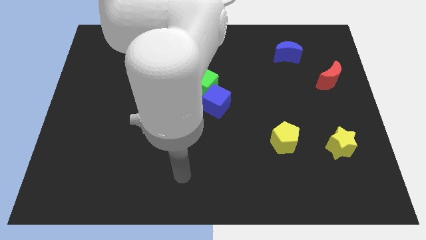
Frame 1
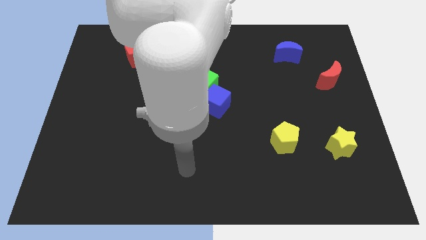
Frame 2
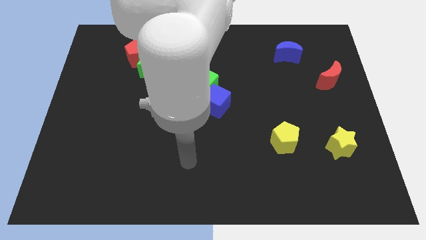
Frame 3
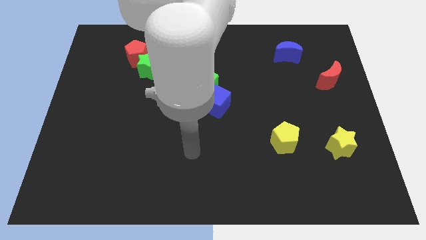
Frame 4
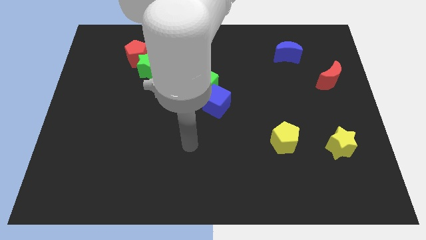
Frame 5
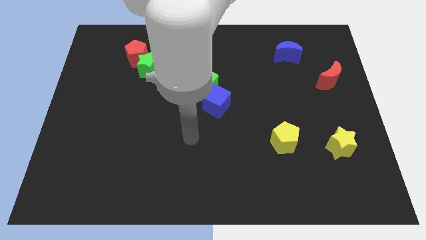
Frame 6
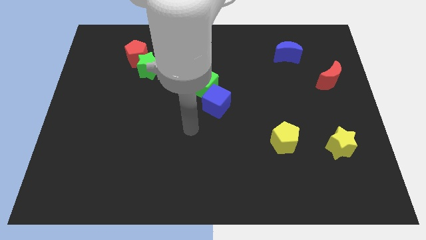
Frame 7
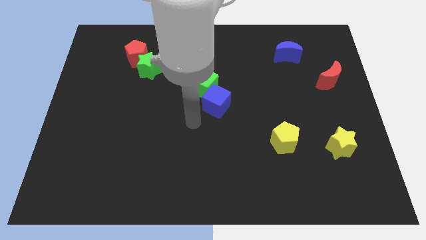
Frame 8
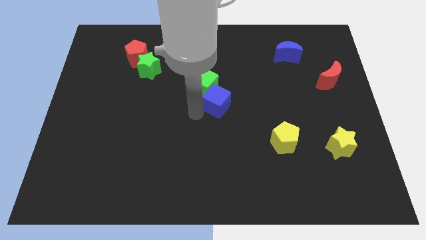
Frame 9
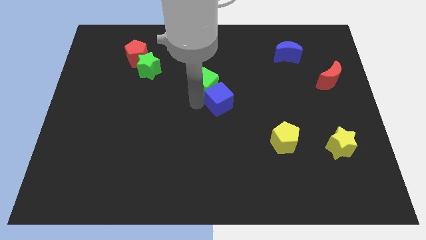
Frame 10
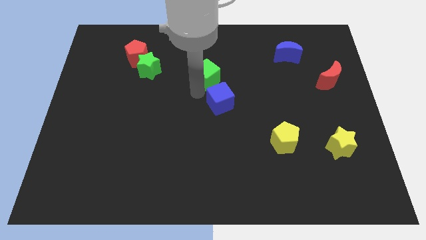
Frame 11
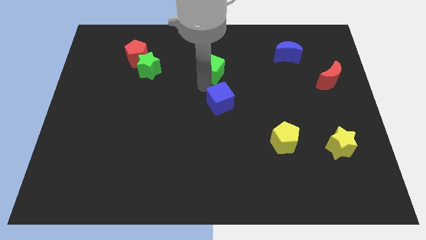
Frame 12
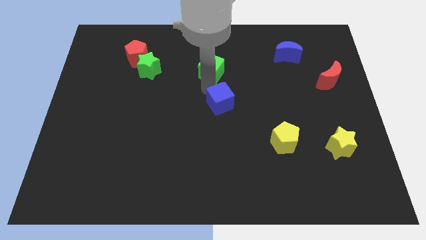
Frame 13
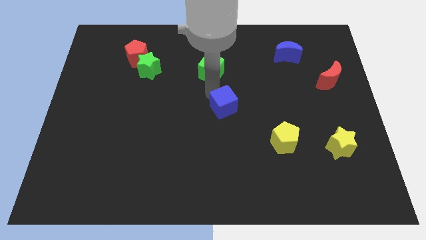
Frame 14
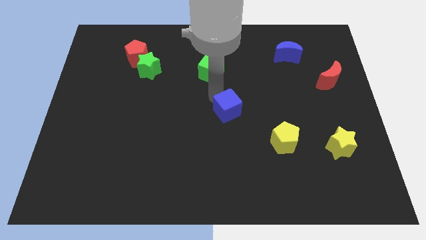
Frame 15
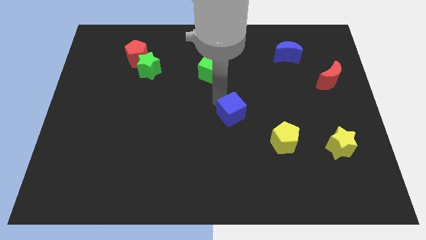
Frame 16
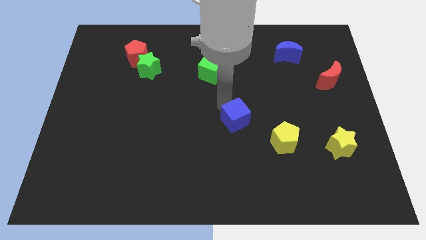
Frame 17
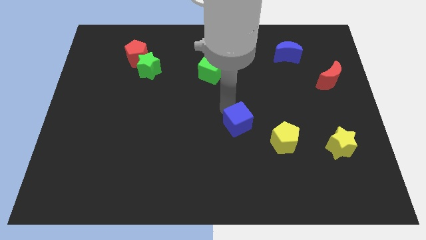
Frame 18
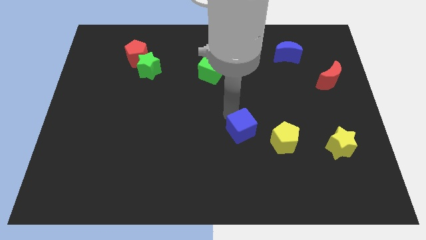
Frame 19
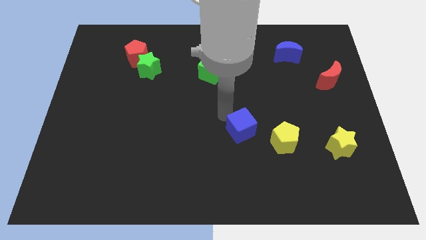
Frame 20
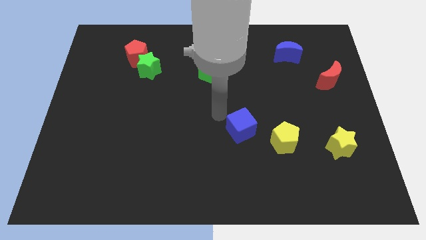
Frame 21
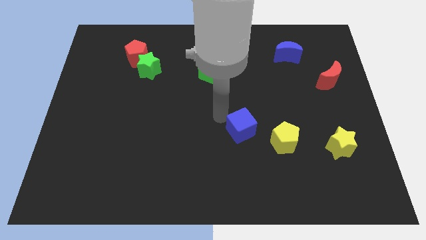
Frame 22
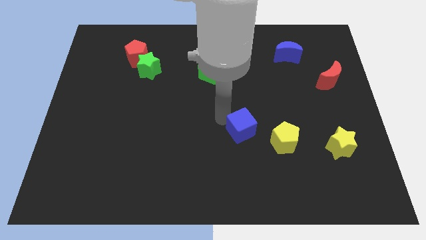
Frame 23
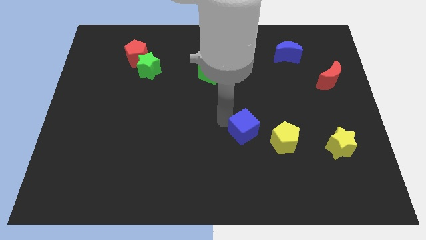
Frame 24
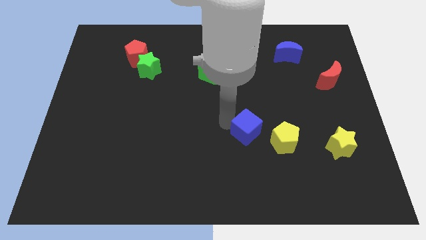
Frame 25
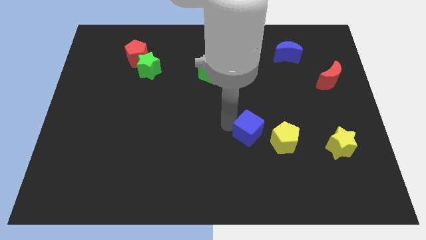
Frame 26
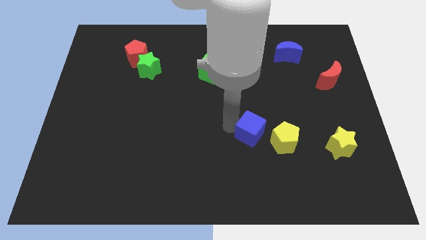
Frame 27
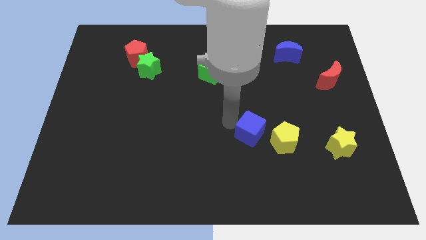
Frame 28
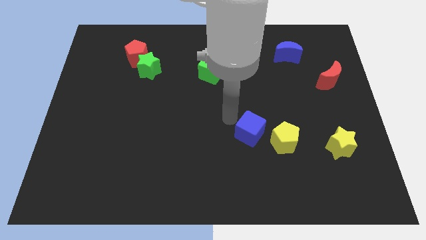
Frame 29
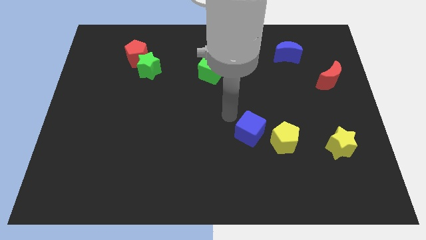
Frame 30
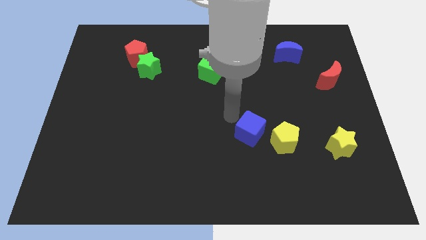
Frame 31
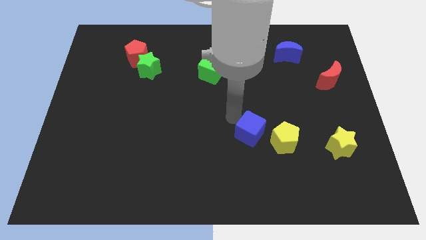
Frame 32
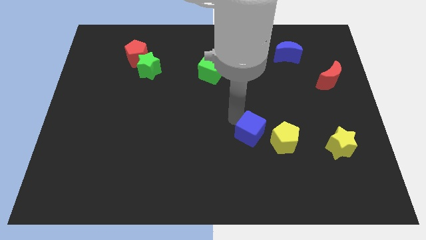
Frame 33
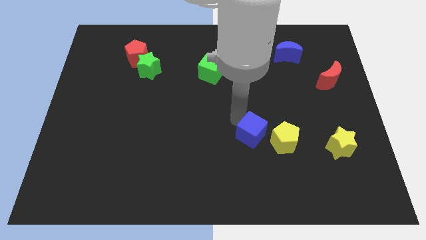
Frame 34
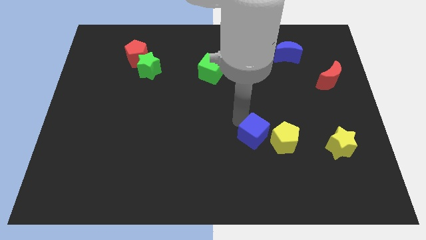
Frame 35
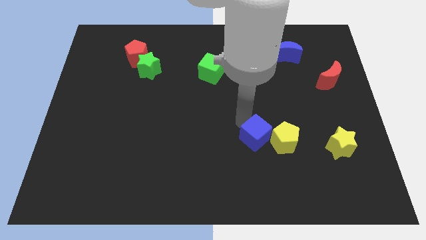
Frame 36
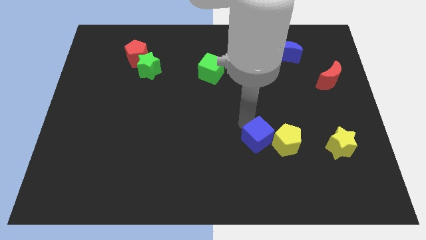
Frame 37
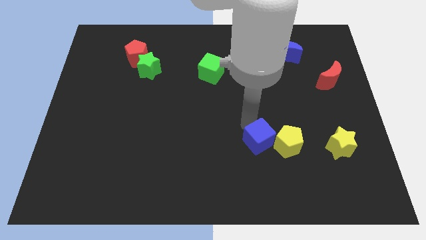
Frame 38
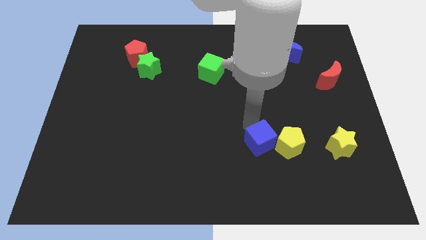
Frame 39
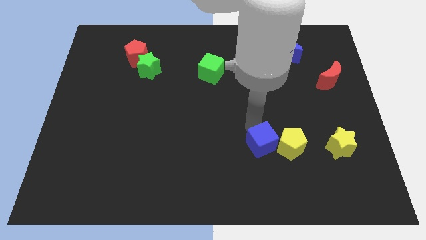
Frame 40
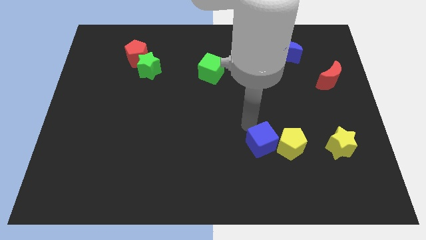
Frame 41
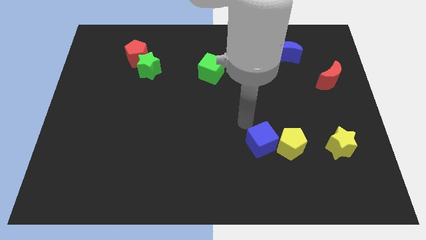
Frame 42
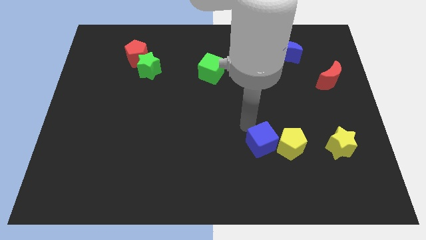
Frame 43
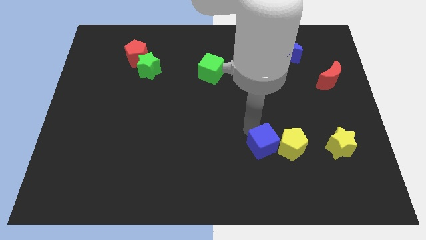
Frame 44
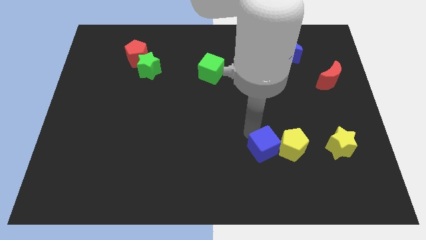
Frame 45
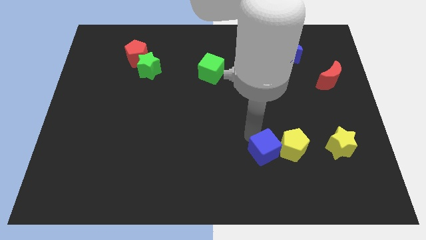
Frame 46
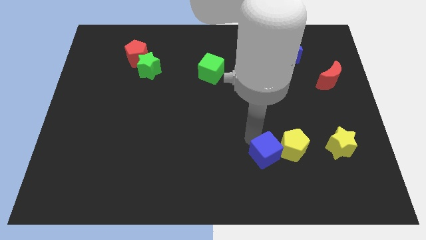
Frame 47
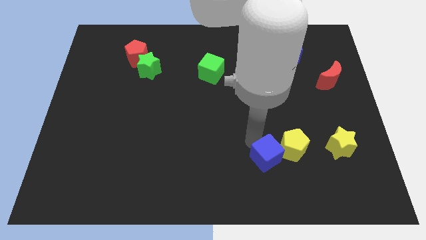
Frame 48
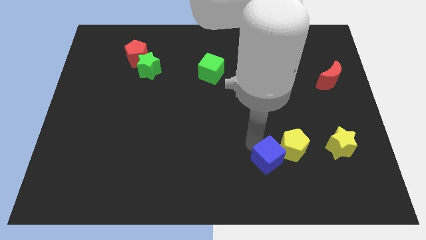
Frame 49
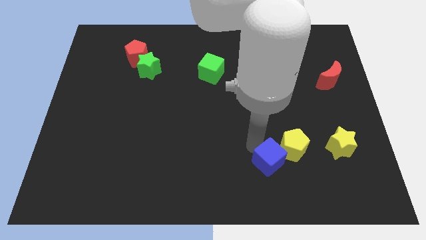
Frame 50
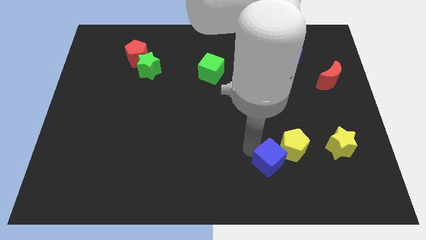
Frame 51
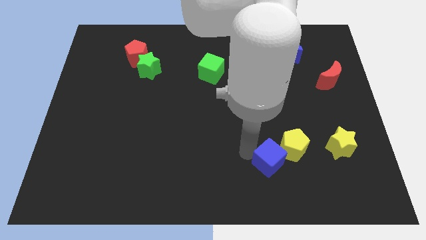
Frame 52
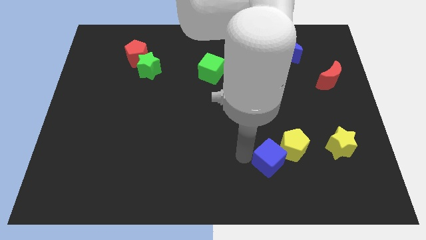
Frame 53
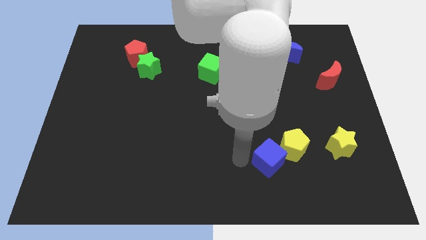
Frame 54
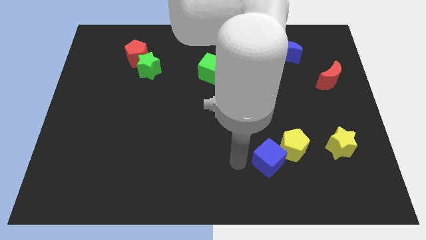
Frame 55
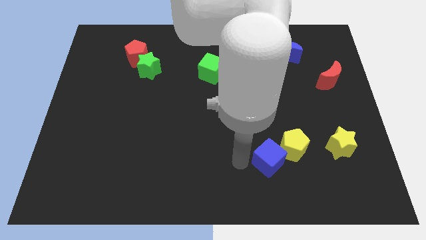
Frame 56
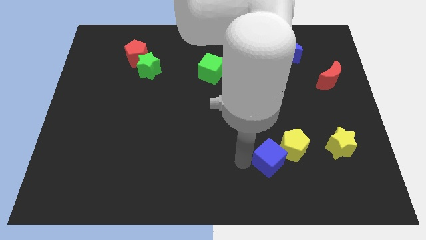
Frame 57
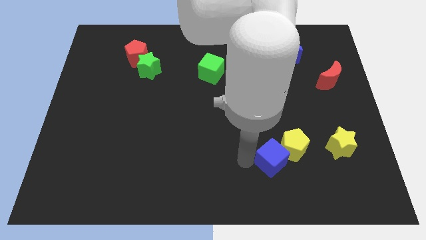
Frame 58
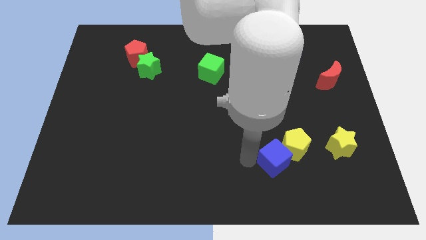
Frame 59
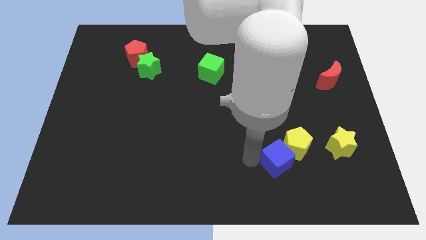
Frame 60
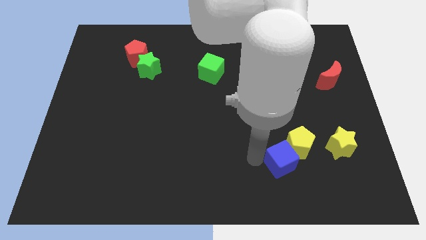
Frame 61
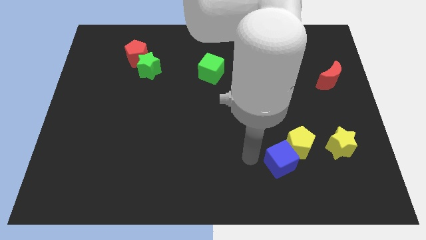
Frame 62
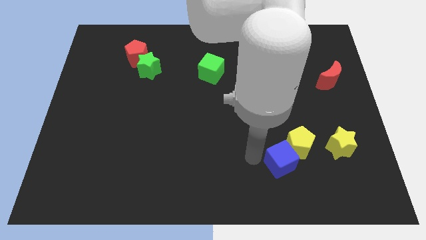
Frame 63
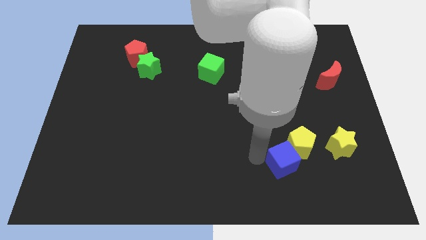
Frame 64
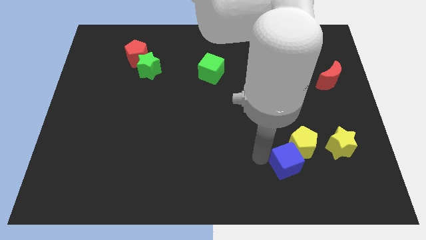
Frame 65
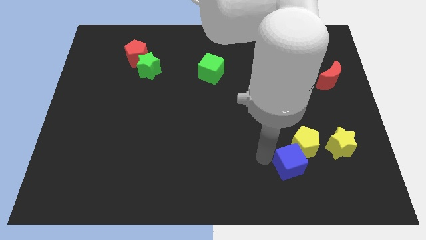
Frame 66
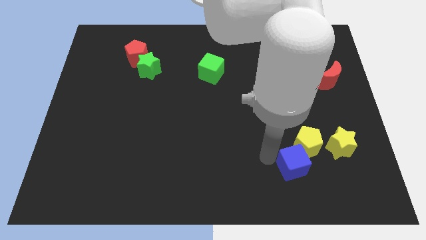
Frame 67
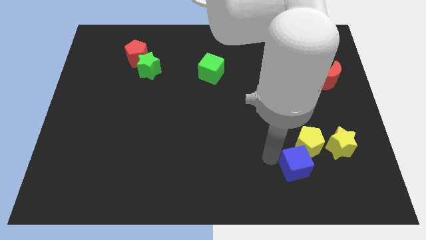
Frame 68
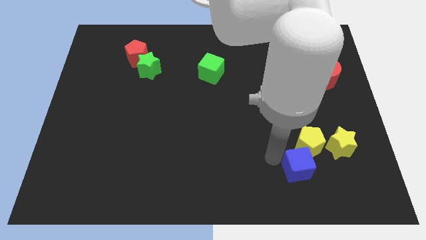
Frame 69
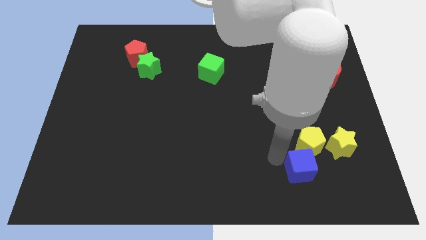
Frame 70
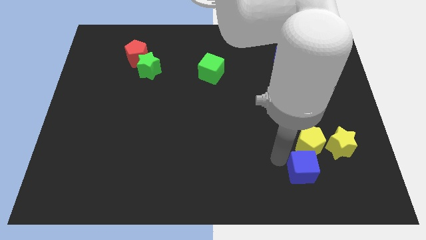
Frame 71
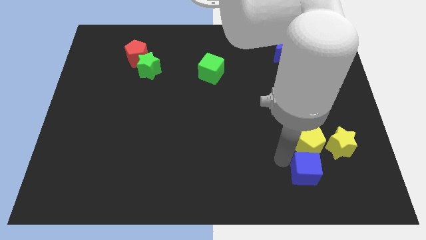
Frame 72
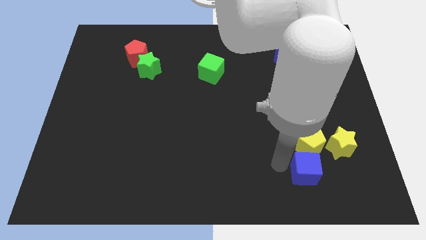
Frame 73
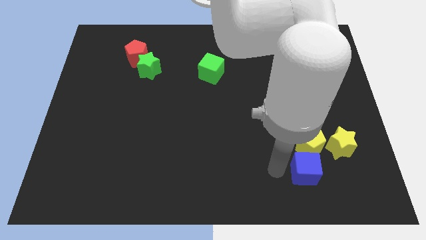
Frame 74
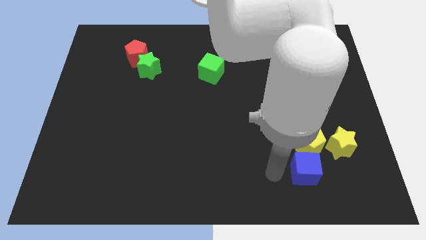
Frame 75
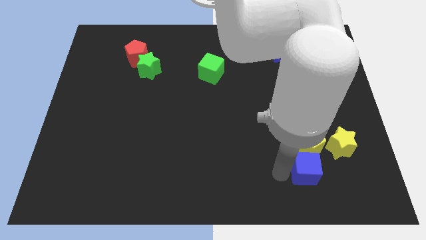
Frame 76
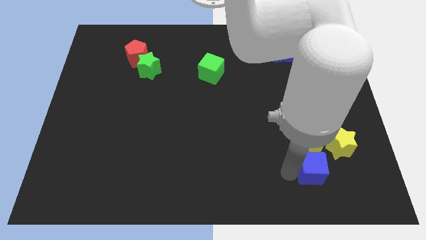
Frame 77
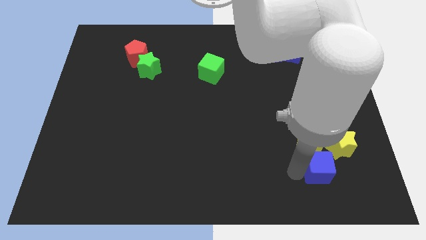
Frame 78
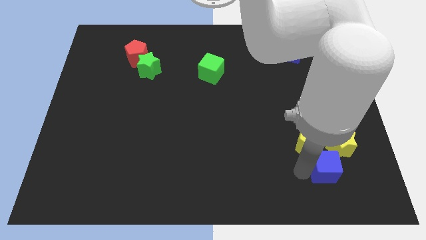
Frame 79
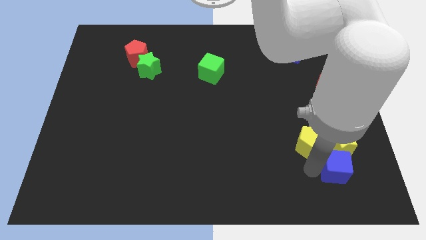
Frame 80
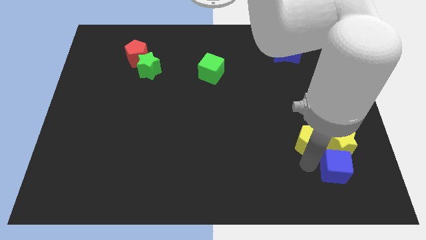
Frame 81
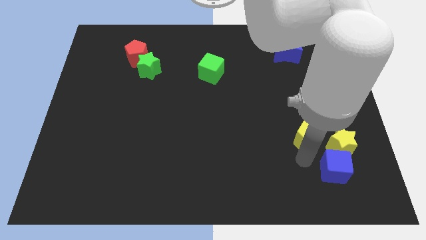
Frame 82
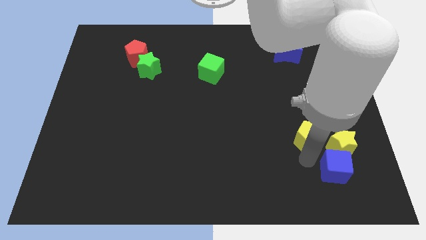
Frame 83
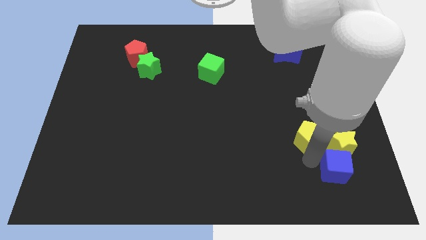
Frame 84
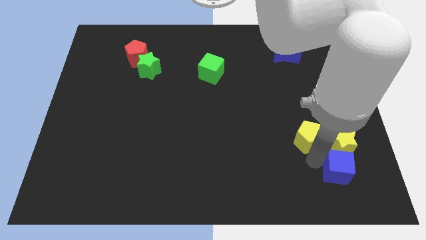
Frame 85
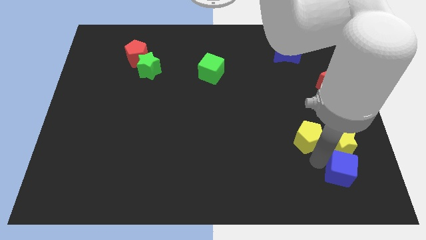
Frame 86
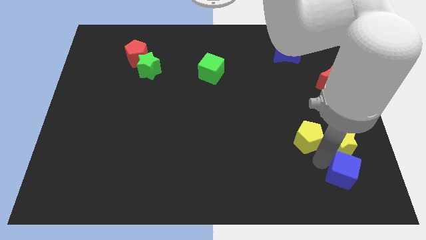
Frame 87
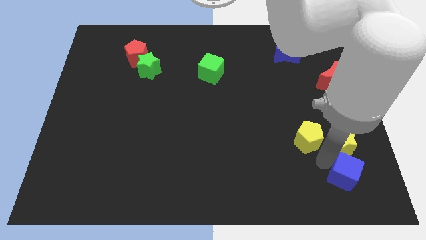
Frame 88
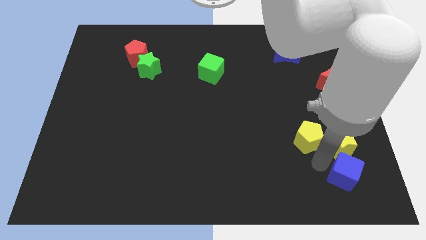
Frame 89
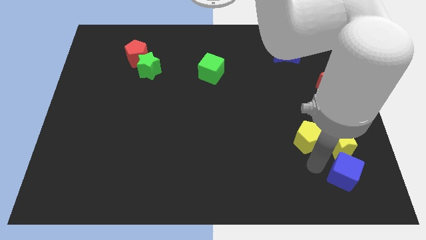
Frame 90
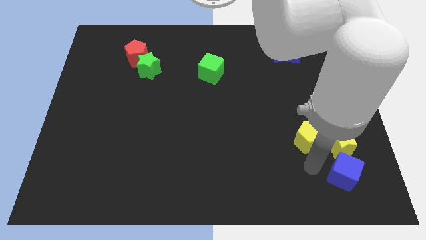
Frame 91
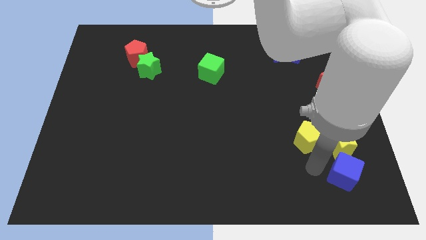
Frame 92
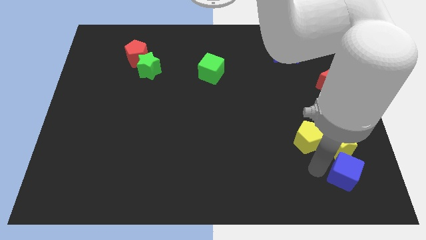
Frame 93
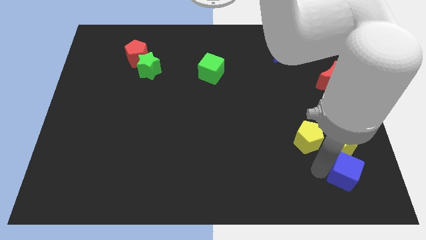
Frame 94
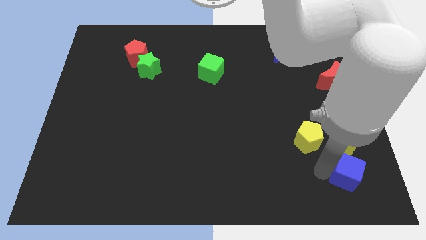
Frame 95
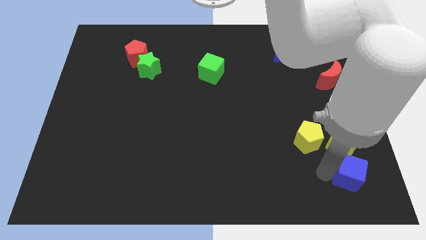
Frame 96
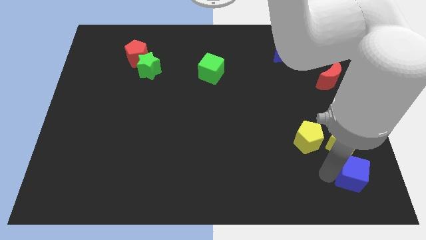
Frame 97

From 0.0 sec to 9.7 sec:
move the blue cube to the lower right corner
